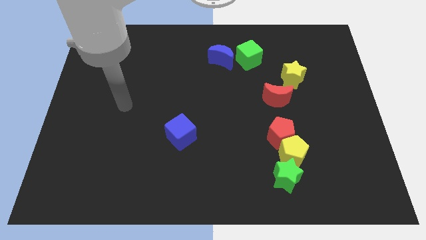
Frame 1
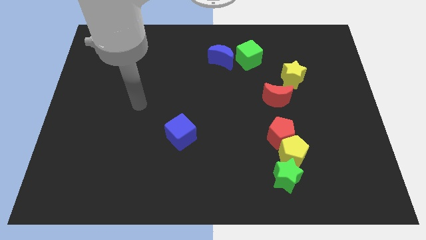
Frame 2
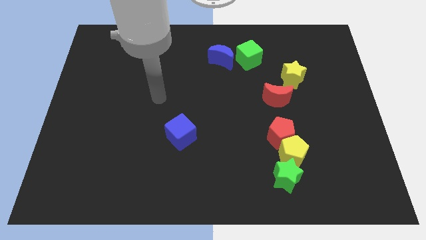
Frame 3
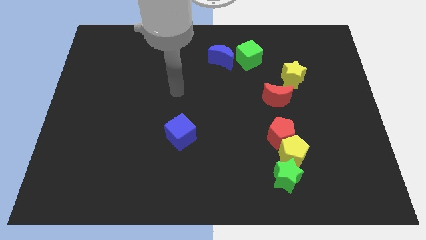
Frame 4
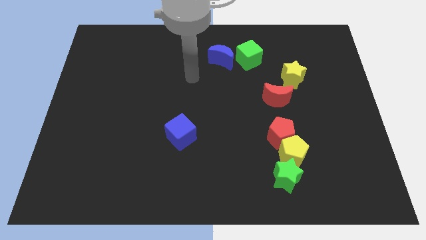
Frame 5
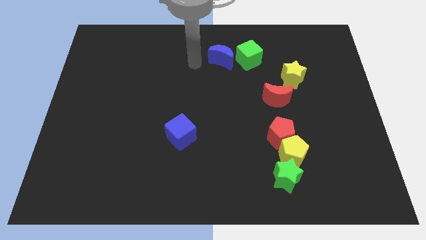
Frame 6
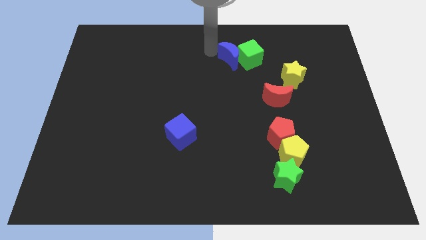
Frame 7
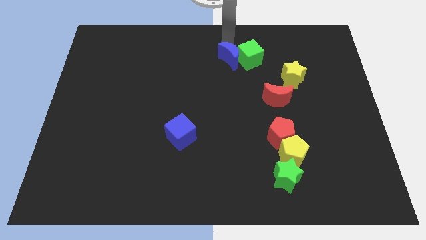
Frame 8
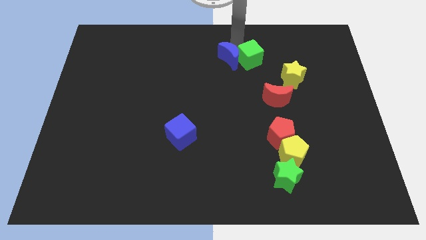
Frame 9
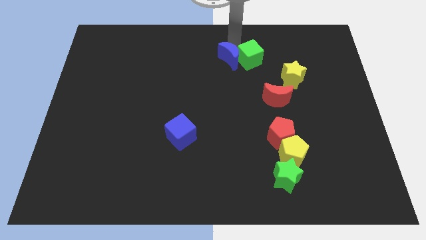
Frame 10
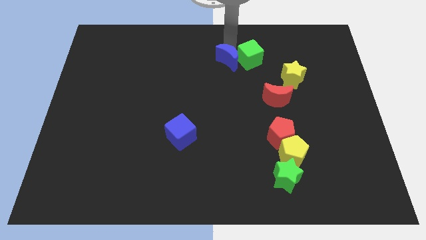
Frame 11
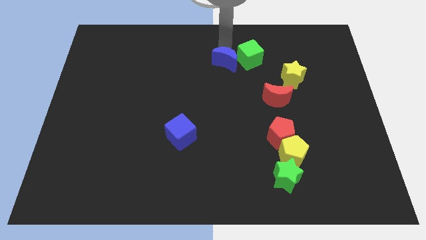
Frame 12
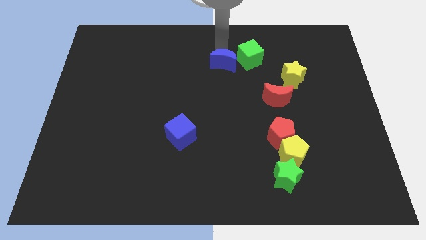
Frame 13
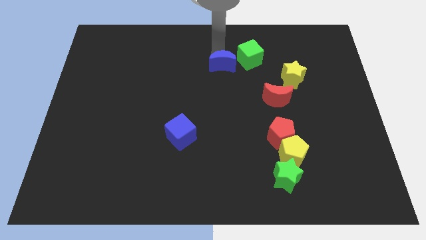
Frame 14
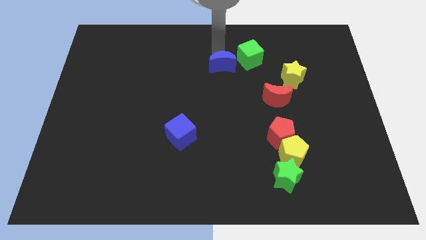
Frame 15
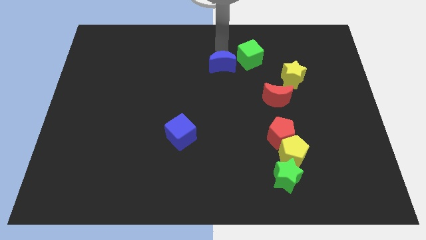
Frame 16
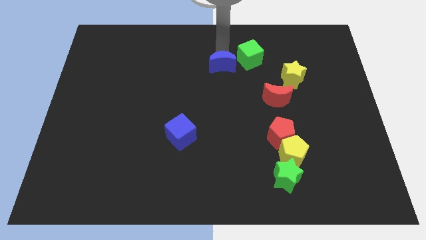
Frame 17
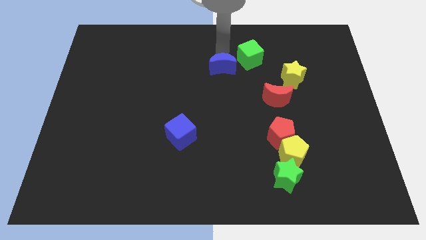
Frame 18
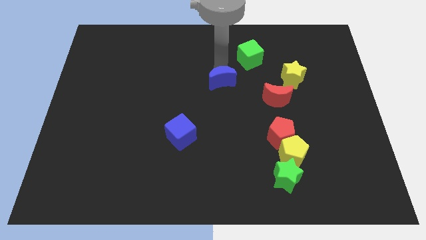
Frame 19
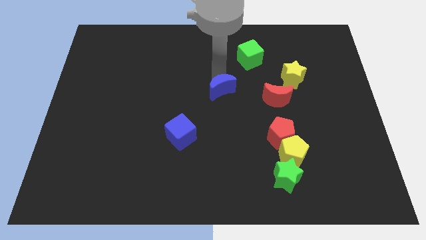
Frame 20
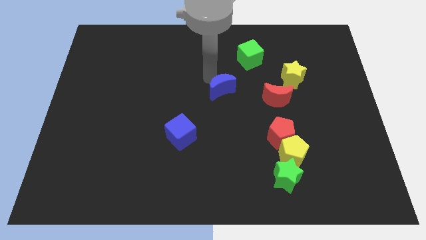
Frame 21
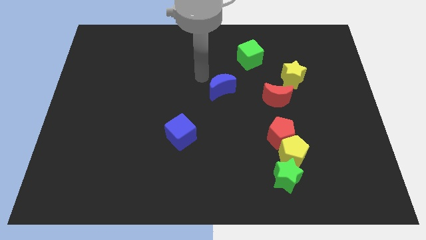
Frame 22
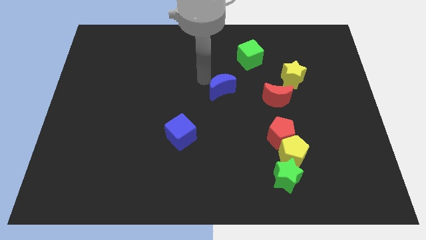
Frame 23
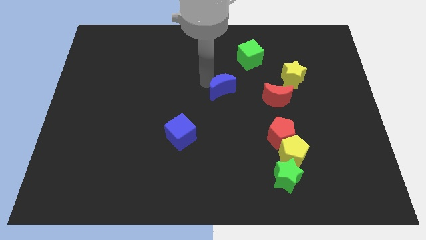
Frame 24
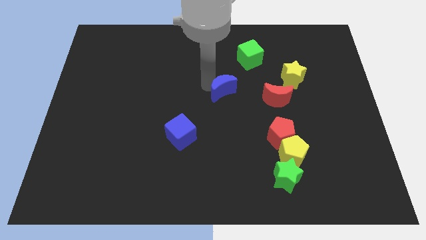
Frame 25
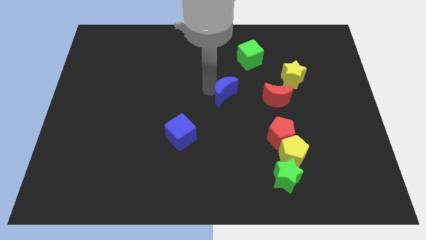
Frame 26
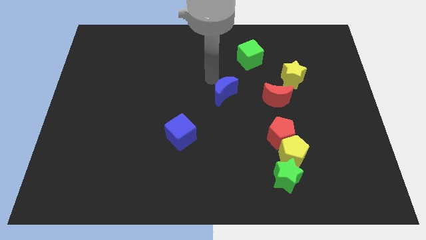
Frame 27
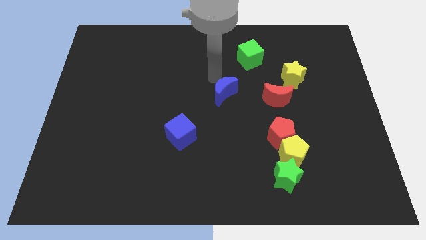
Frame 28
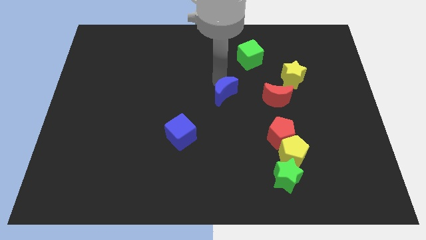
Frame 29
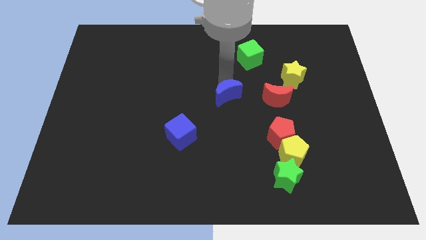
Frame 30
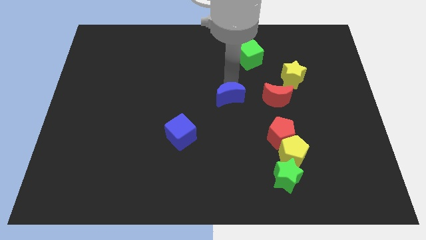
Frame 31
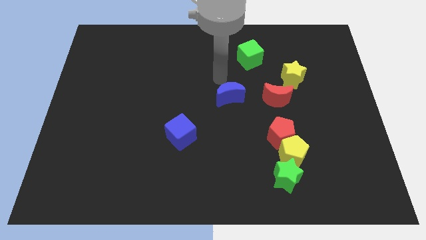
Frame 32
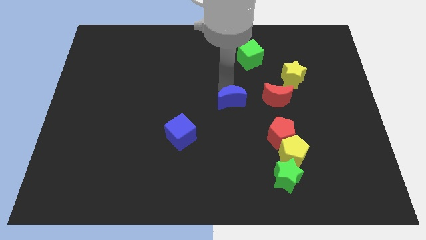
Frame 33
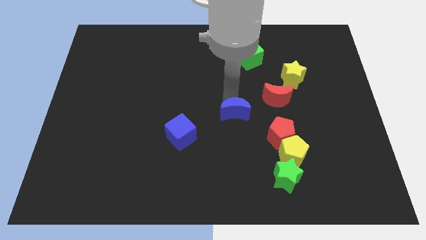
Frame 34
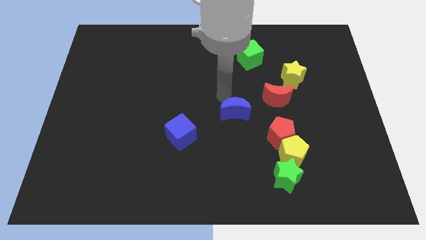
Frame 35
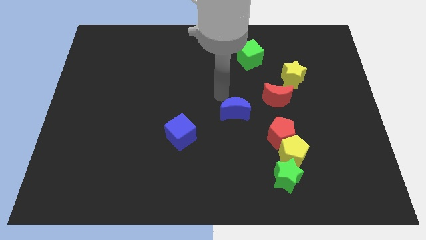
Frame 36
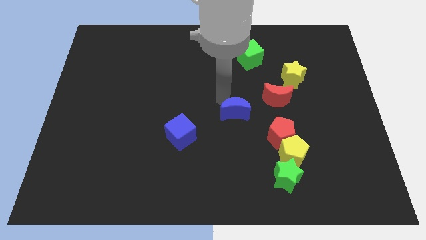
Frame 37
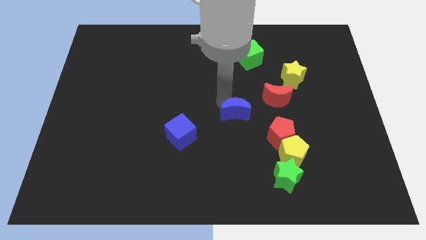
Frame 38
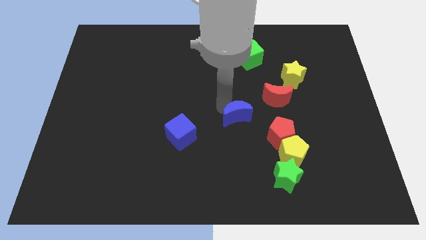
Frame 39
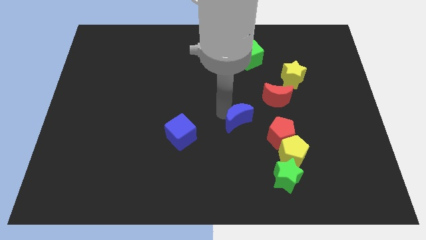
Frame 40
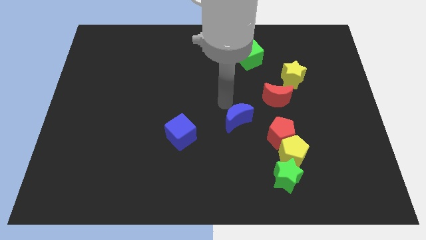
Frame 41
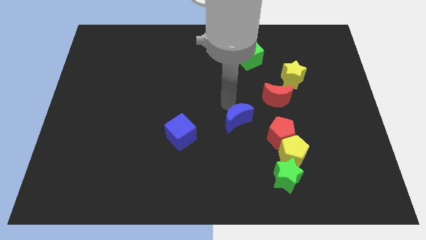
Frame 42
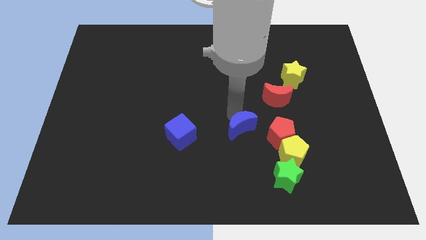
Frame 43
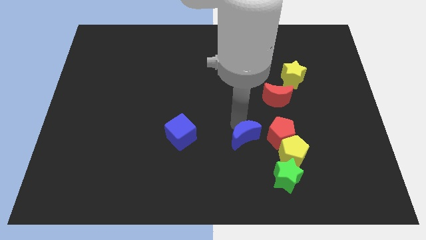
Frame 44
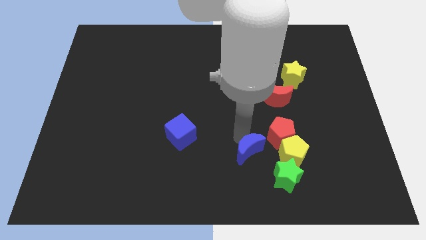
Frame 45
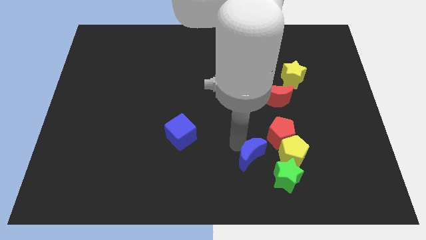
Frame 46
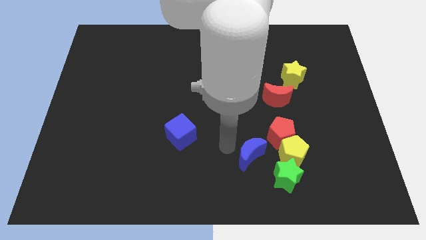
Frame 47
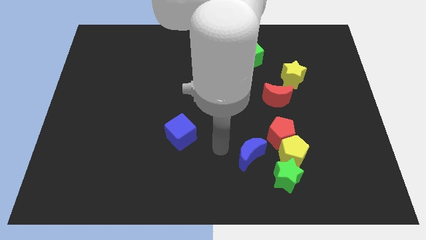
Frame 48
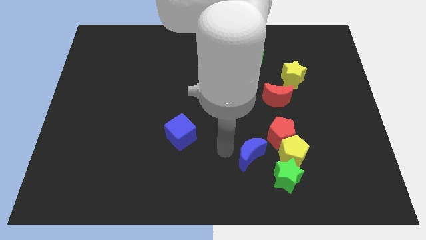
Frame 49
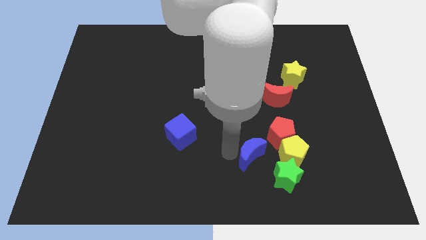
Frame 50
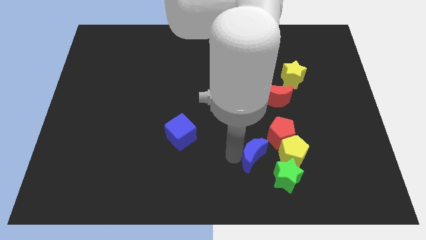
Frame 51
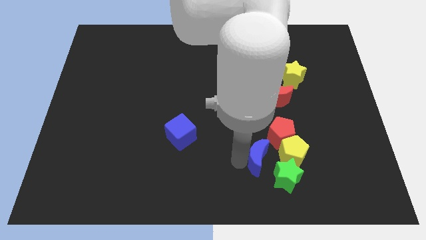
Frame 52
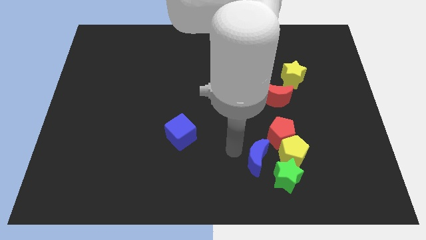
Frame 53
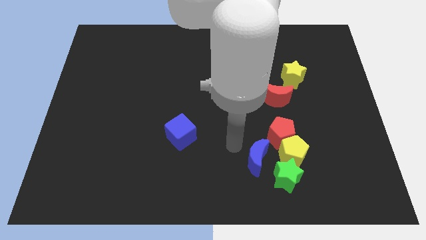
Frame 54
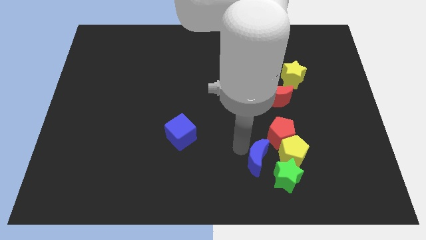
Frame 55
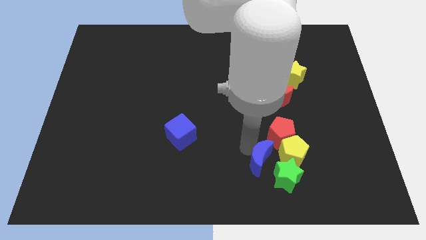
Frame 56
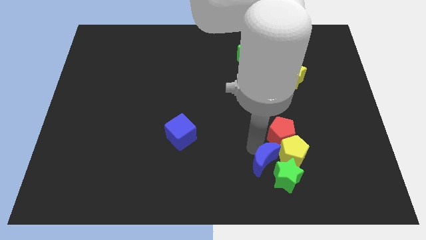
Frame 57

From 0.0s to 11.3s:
push the blue moon to the green star

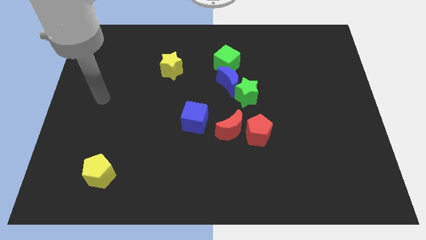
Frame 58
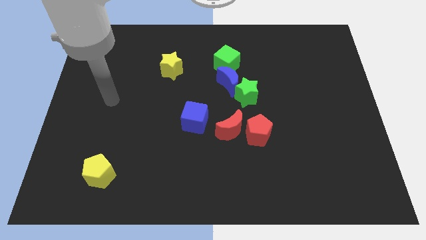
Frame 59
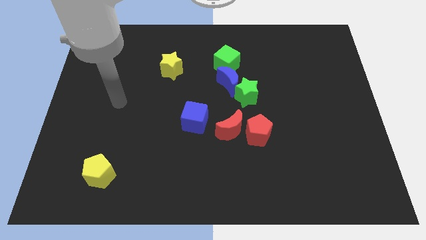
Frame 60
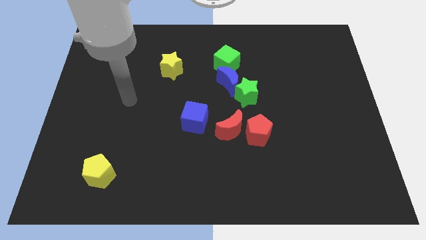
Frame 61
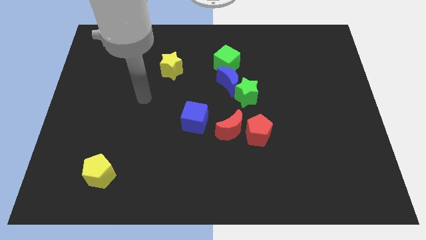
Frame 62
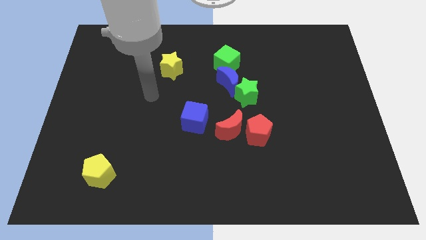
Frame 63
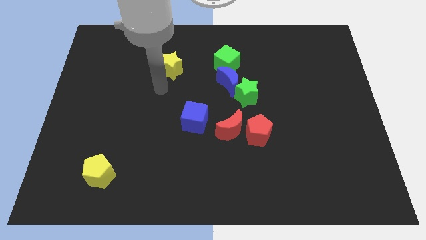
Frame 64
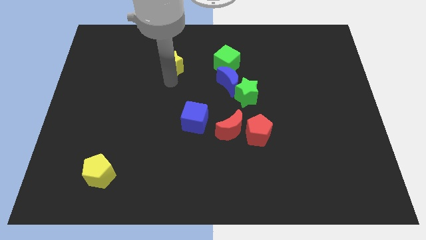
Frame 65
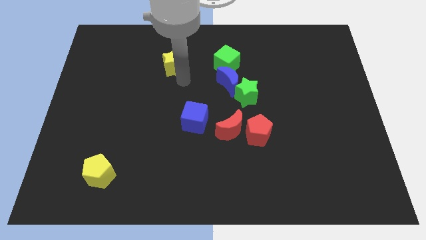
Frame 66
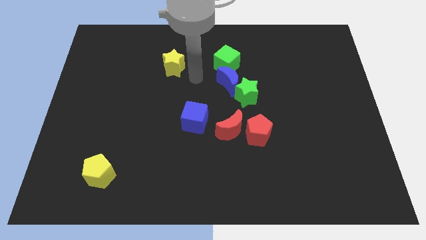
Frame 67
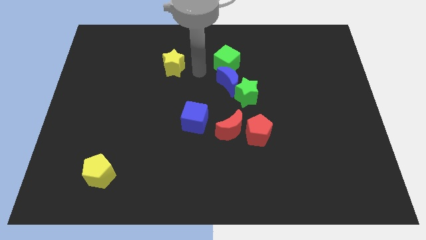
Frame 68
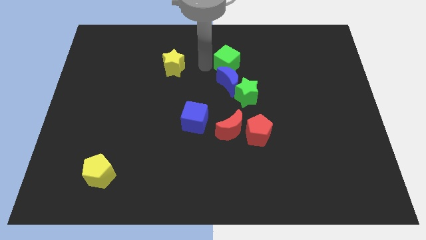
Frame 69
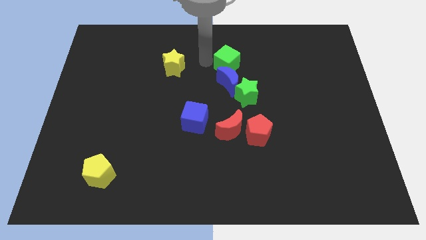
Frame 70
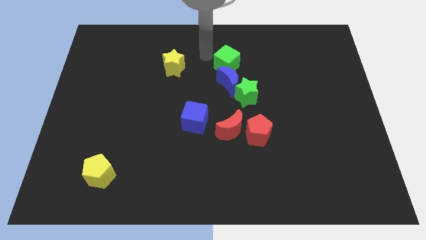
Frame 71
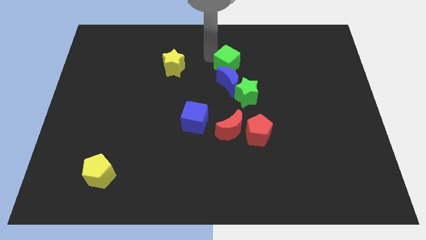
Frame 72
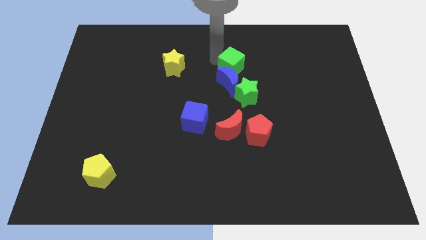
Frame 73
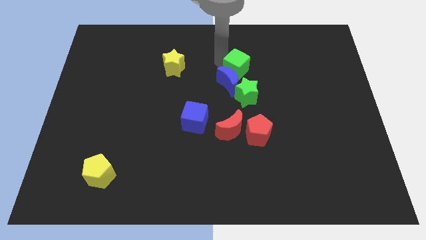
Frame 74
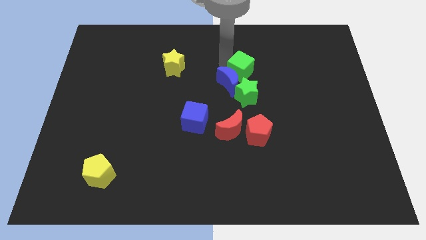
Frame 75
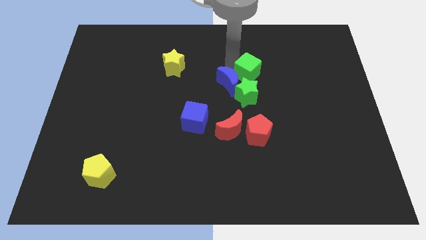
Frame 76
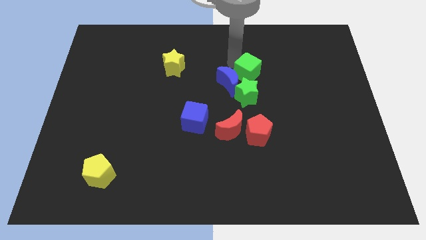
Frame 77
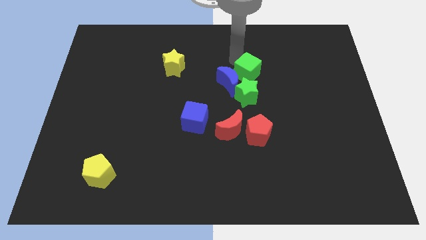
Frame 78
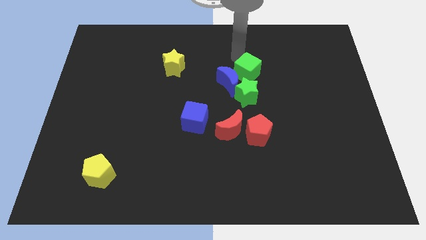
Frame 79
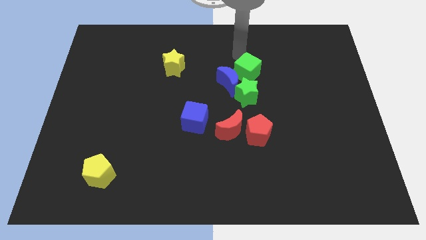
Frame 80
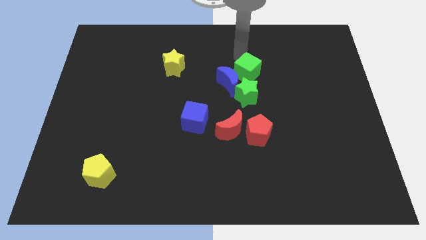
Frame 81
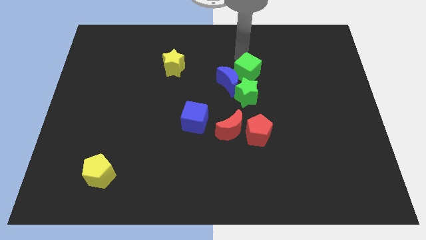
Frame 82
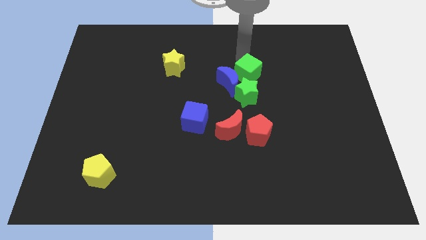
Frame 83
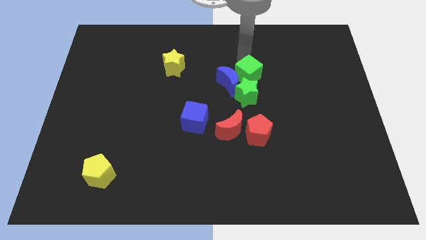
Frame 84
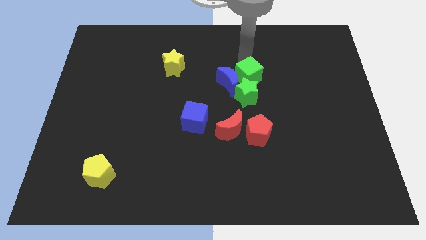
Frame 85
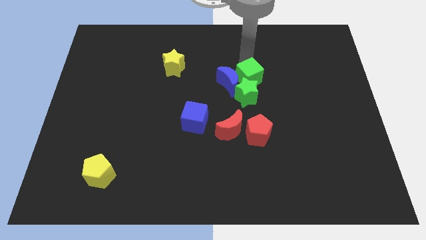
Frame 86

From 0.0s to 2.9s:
put the green cube towards the green star
